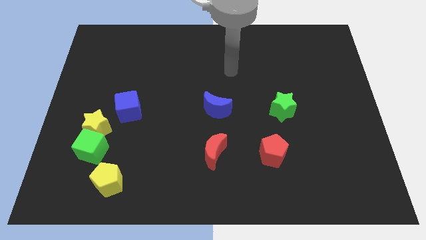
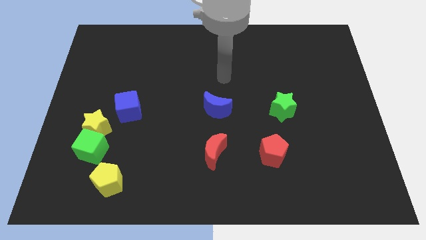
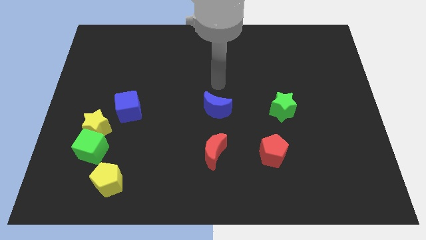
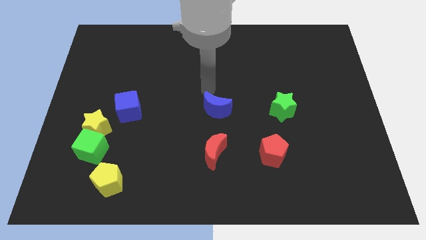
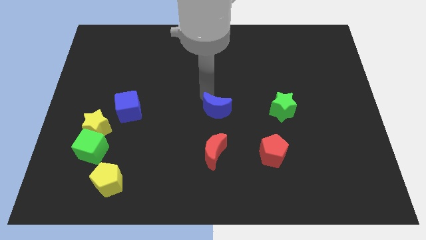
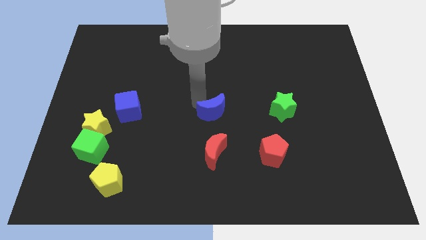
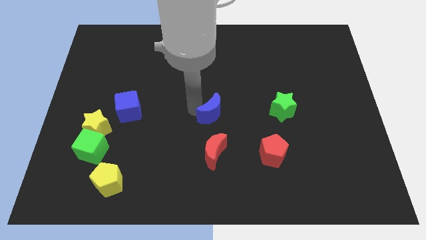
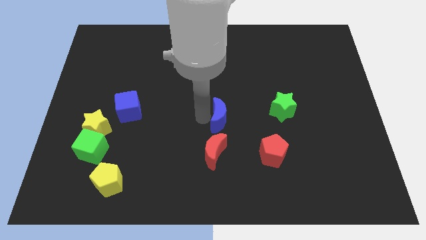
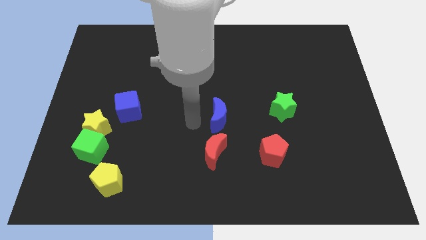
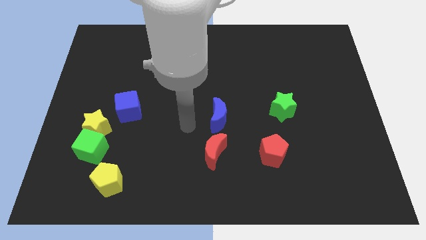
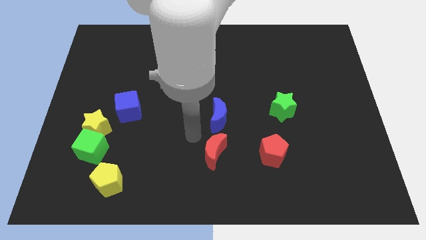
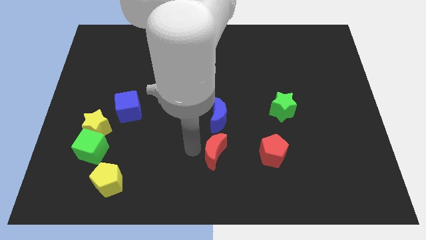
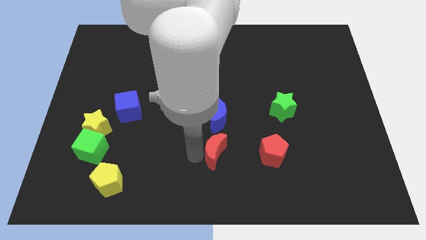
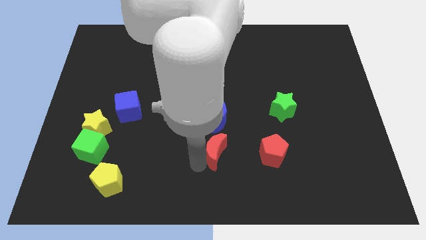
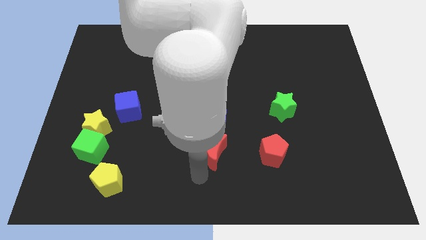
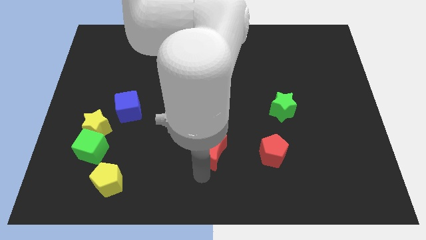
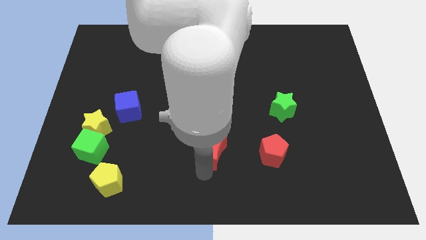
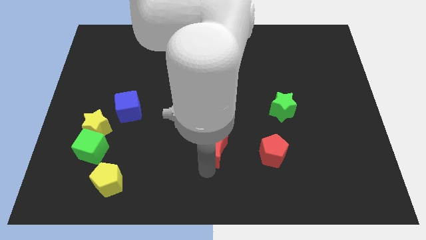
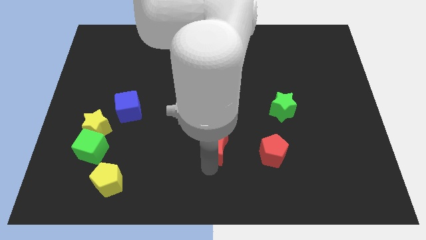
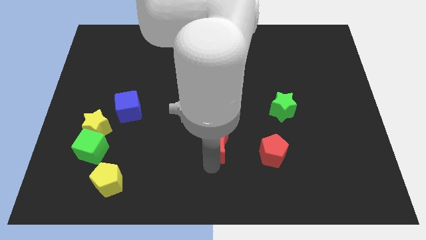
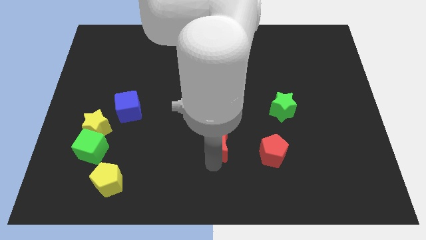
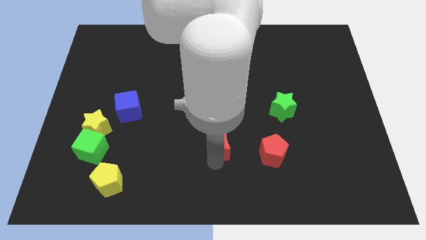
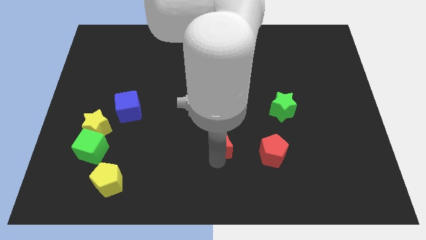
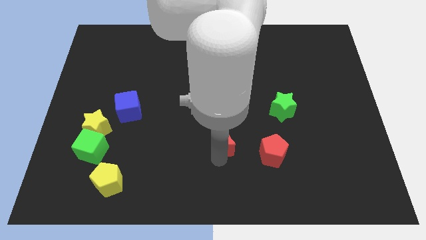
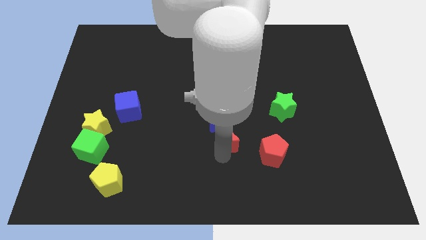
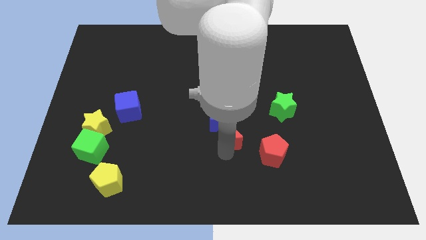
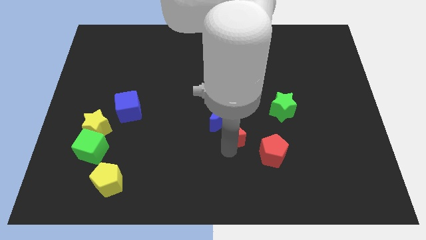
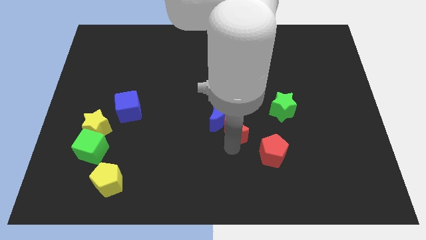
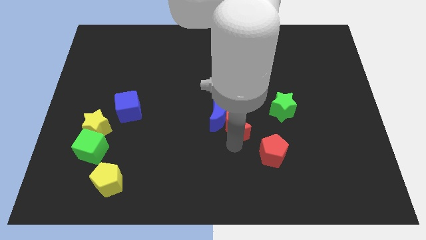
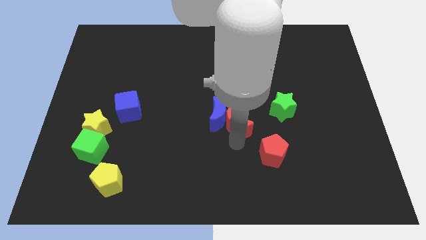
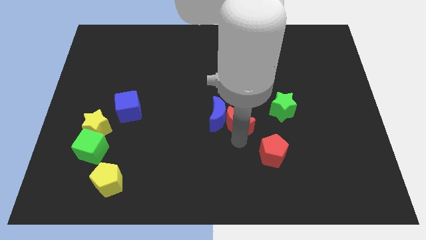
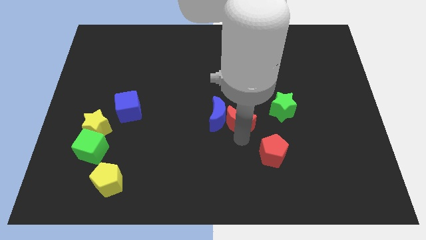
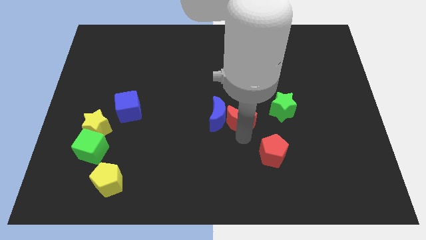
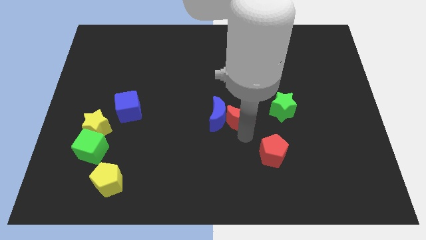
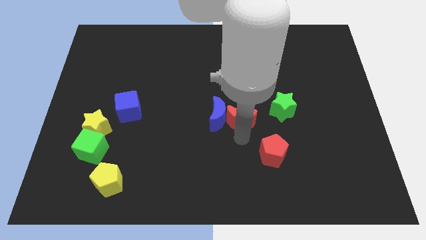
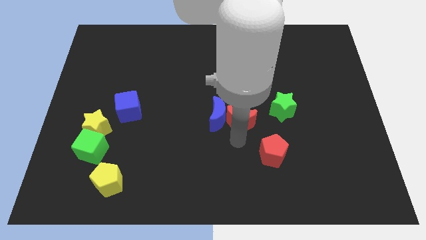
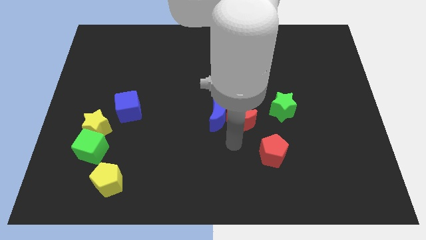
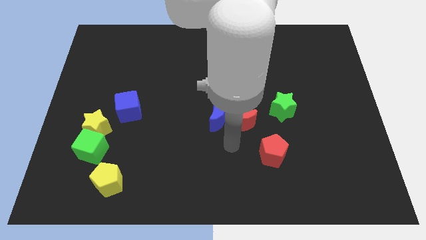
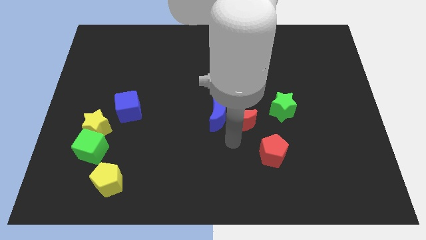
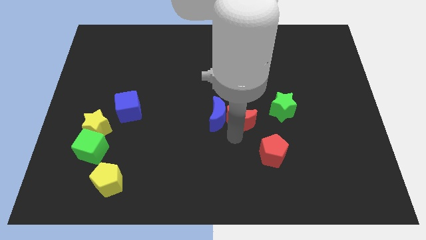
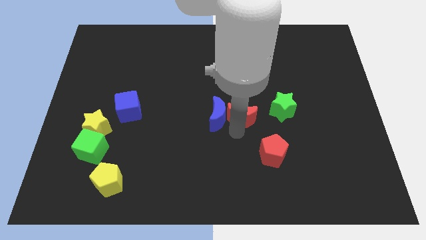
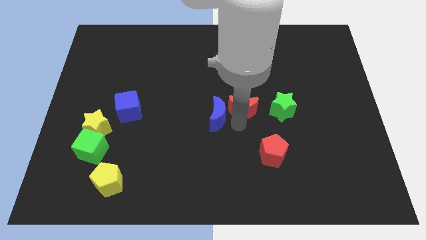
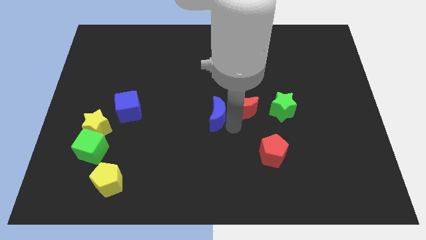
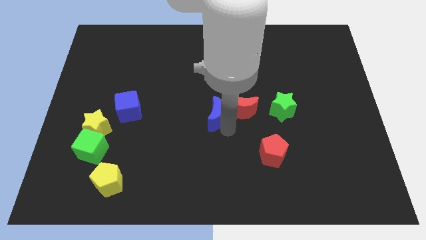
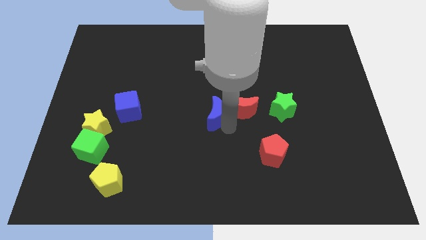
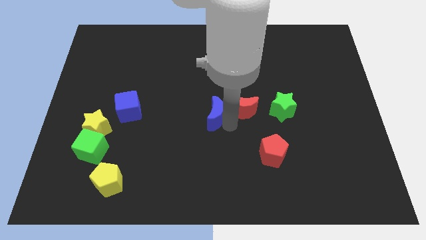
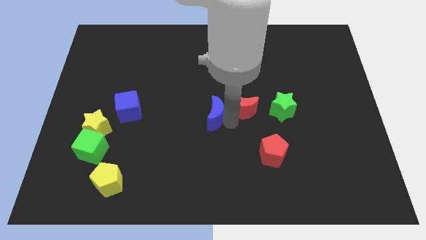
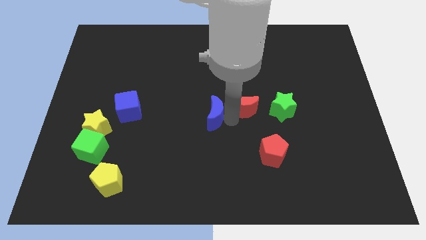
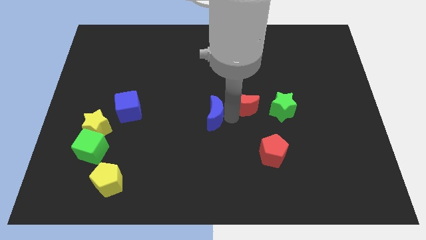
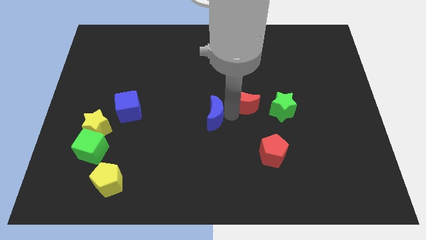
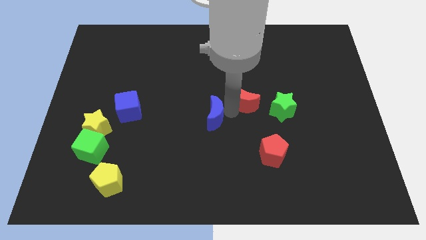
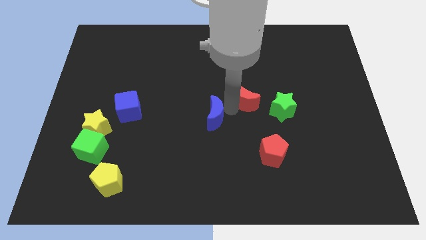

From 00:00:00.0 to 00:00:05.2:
push the red moon to the top left of the green star

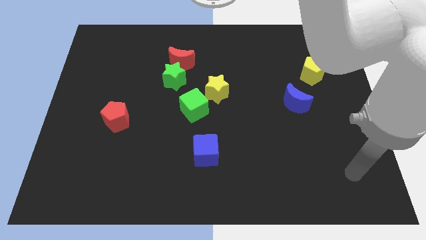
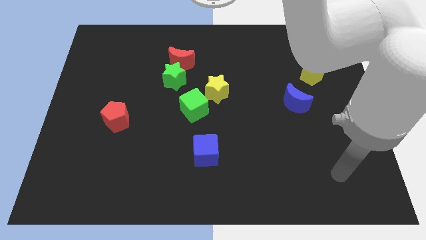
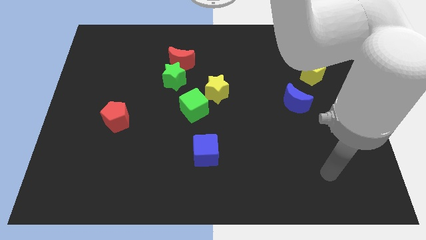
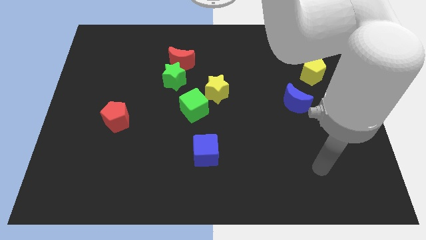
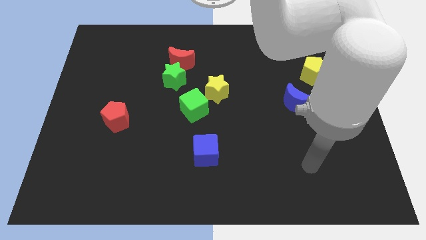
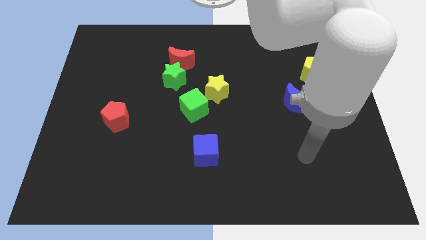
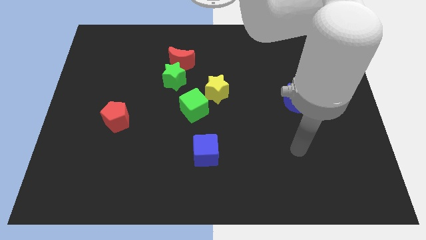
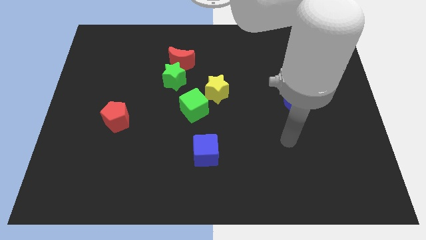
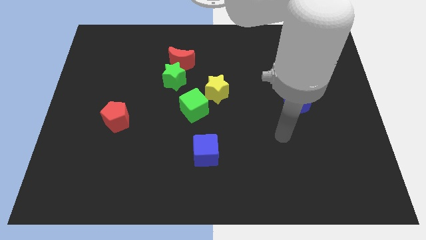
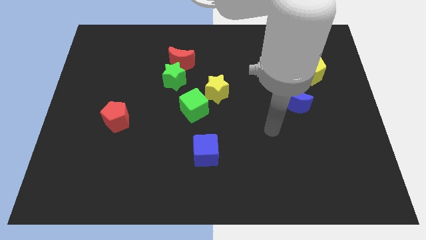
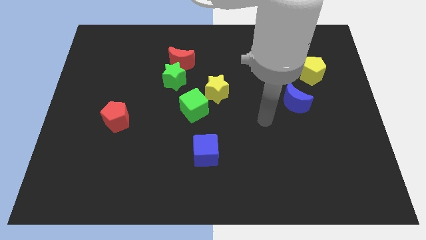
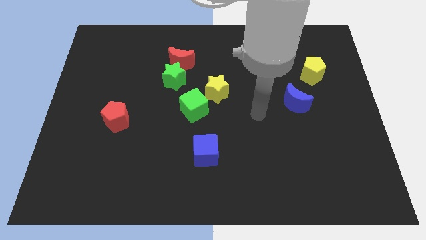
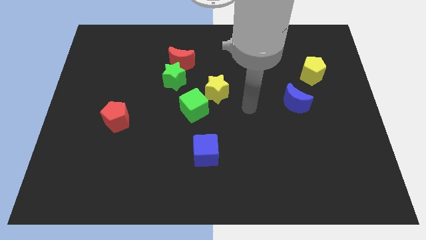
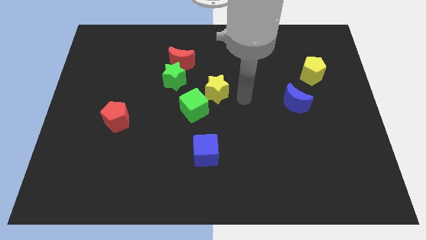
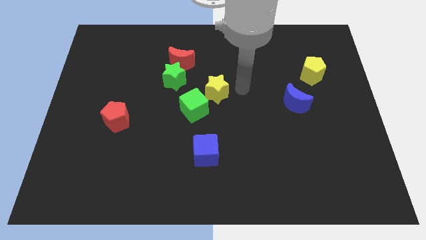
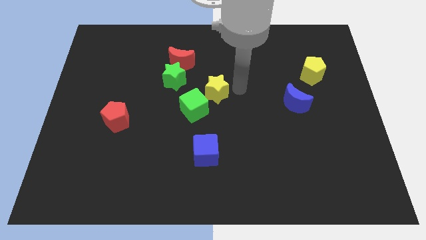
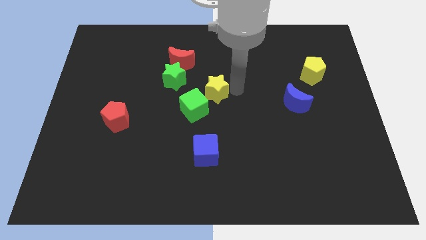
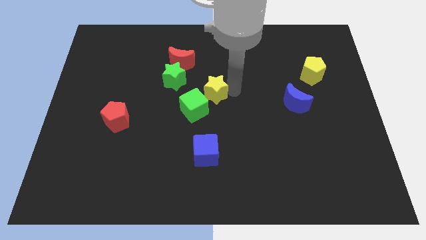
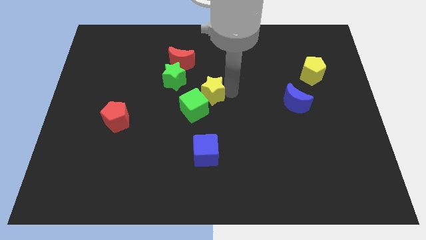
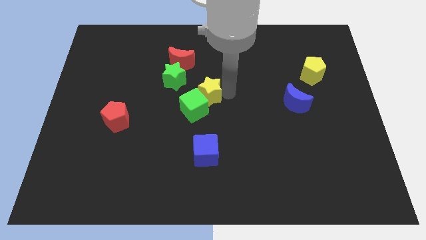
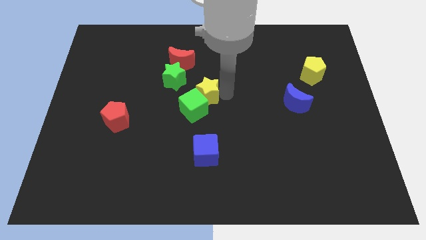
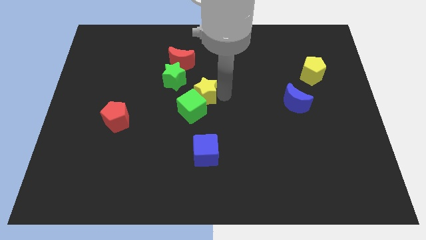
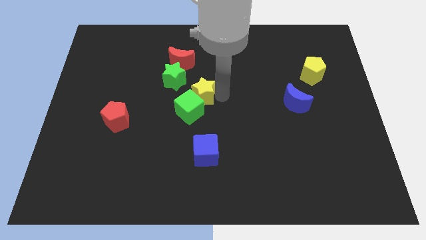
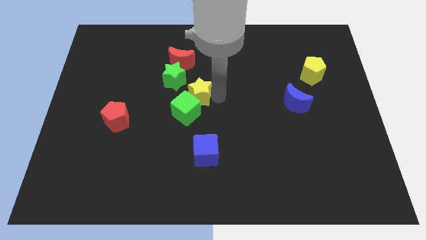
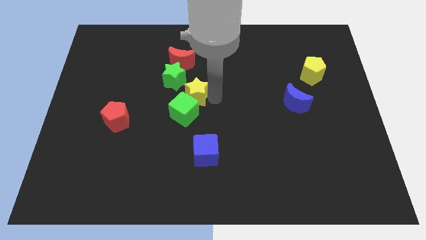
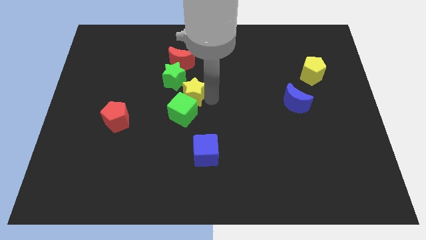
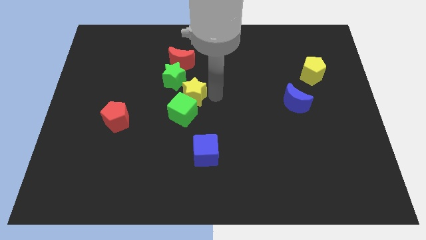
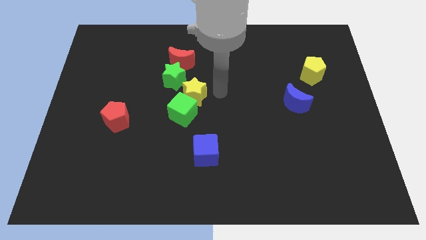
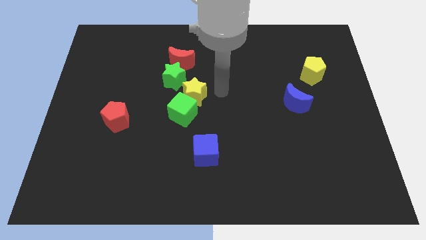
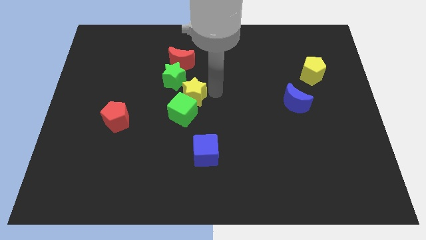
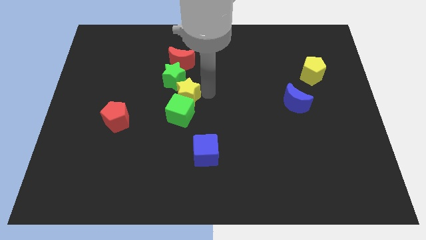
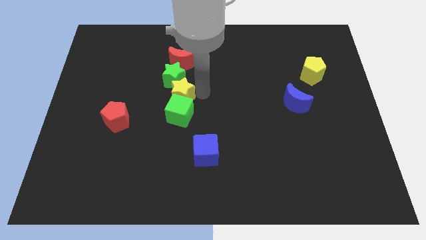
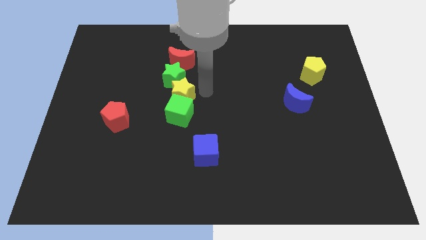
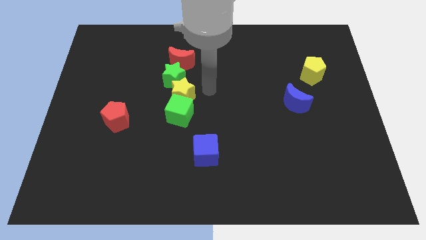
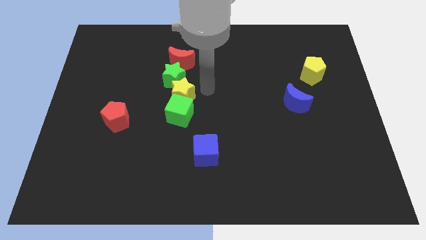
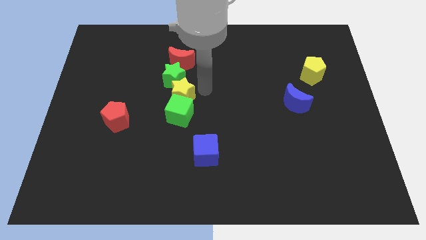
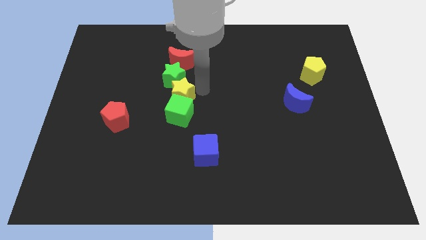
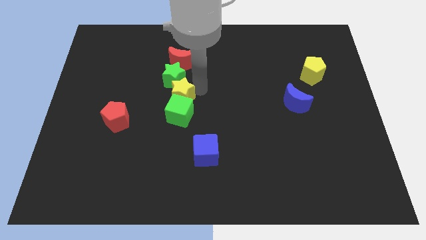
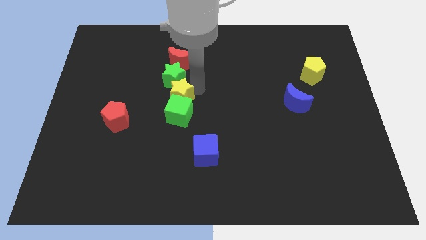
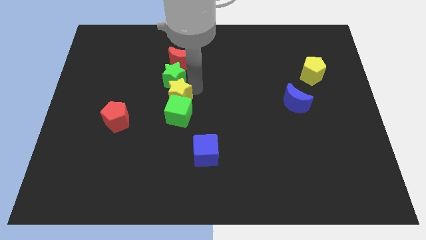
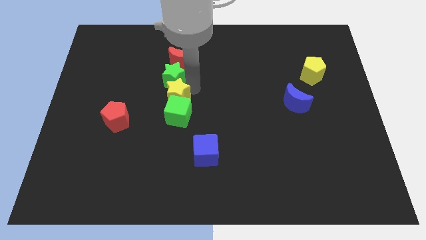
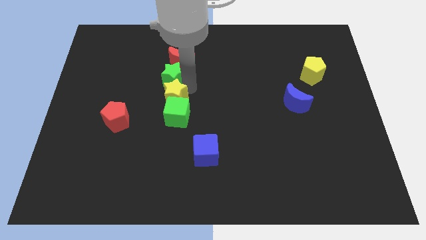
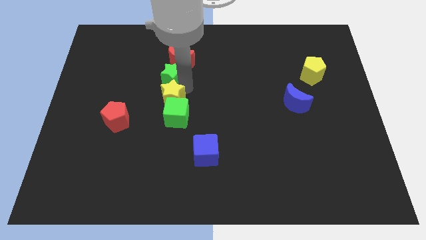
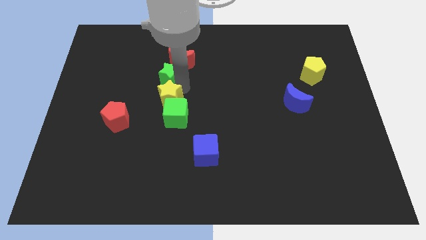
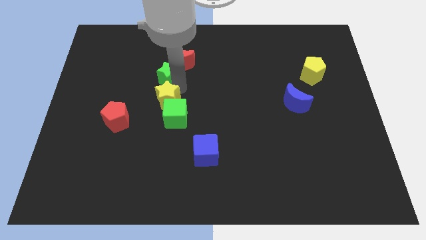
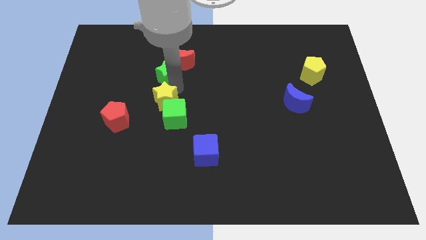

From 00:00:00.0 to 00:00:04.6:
put the yellow star diagonally up and to the right of the red pentagon
